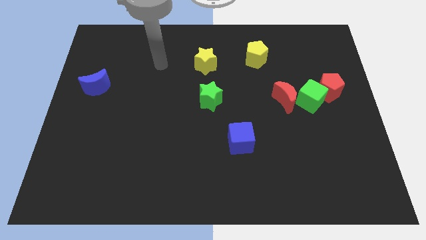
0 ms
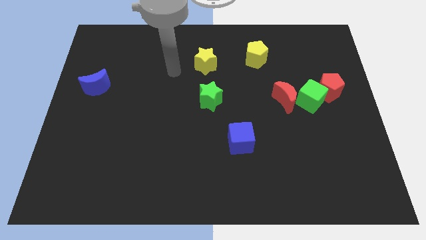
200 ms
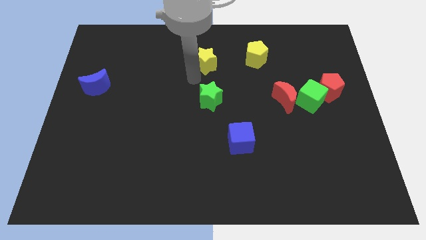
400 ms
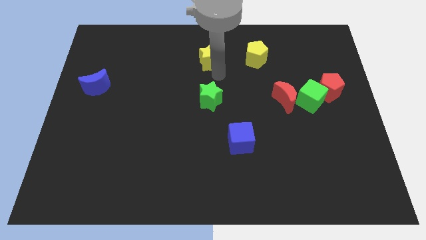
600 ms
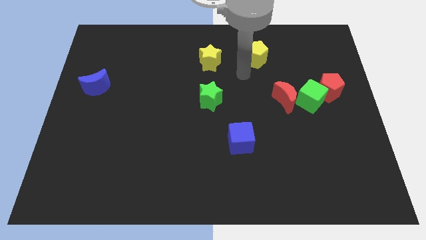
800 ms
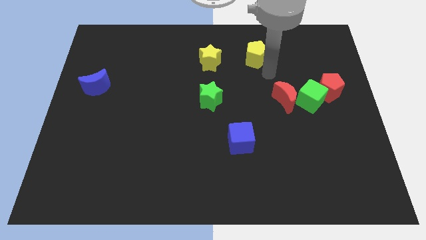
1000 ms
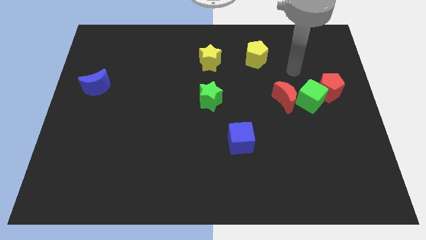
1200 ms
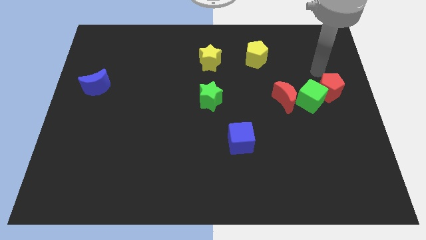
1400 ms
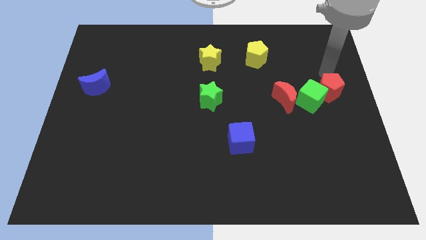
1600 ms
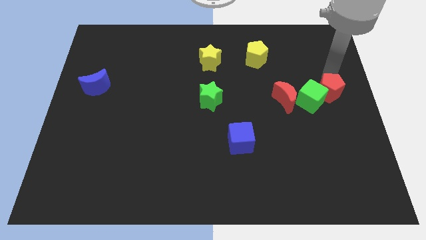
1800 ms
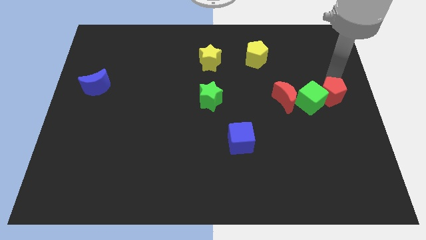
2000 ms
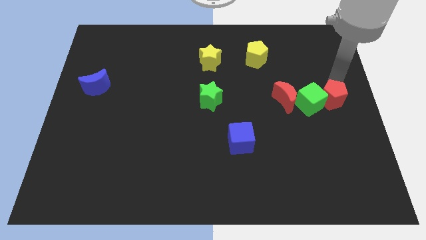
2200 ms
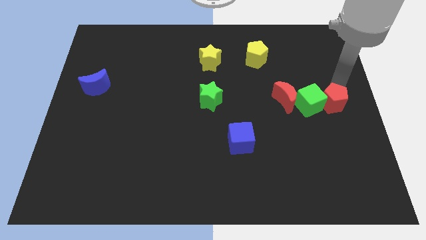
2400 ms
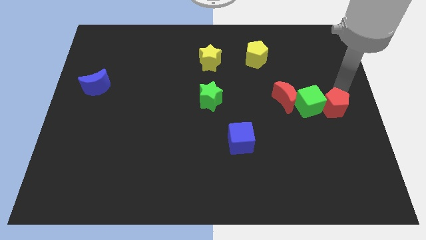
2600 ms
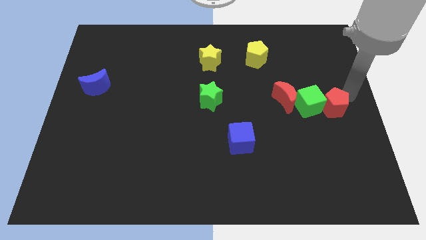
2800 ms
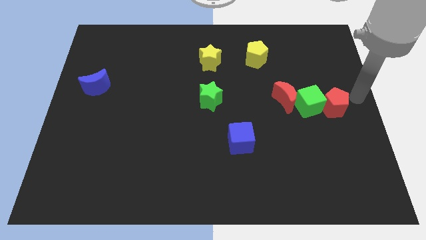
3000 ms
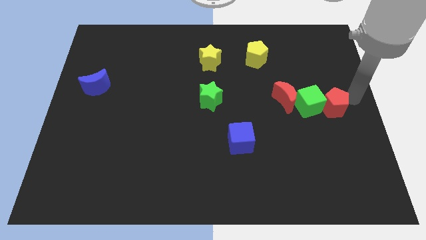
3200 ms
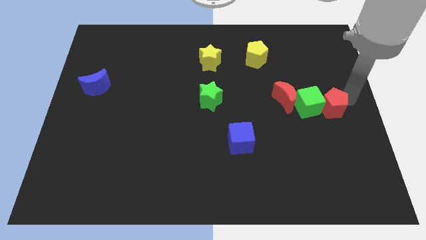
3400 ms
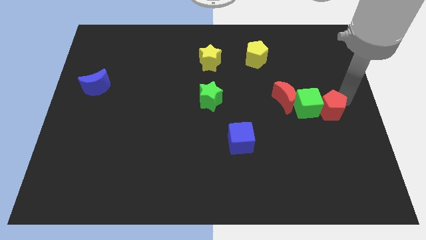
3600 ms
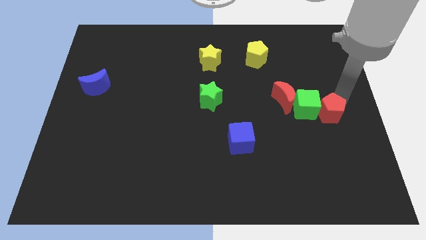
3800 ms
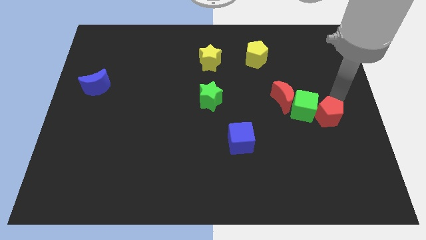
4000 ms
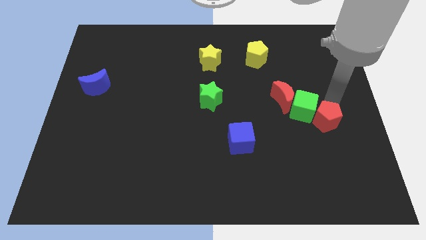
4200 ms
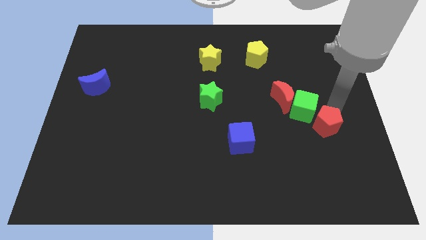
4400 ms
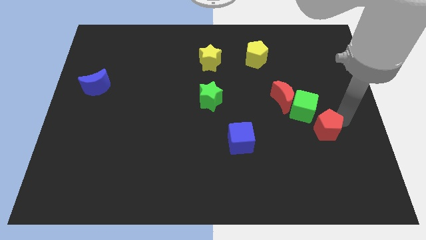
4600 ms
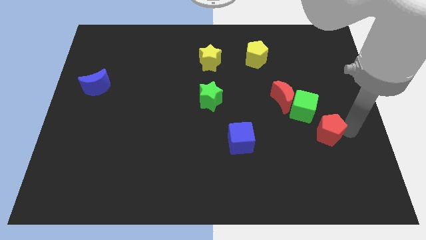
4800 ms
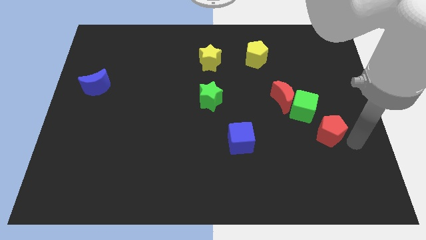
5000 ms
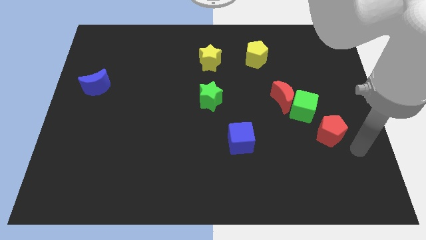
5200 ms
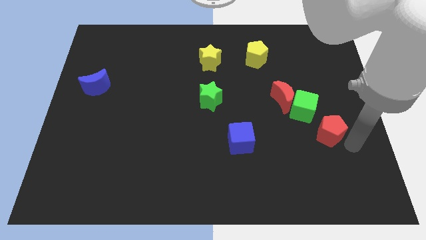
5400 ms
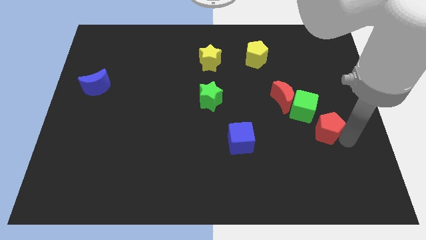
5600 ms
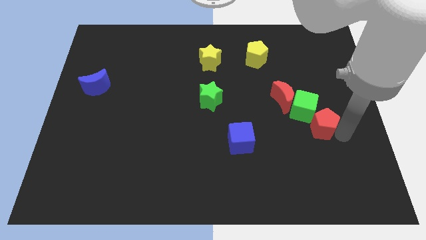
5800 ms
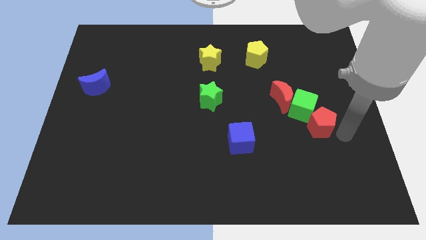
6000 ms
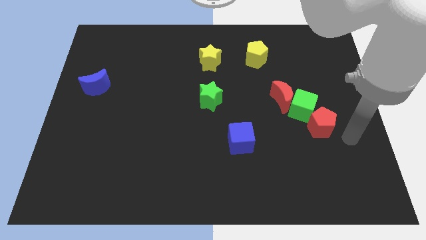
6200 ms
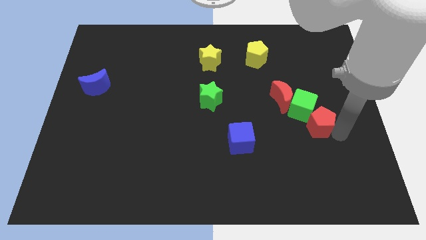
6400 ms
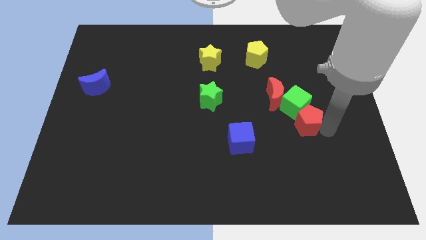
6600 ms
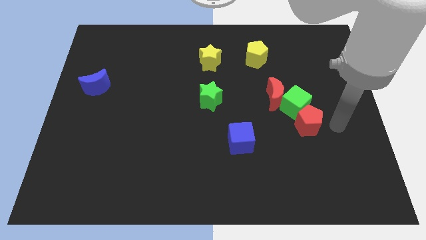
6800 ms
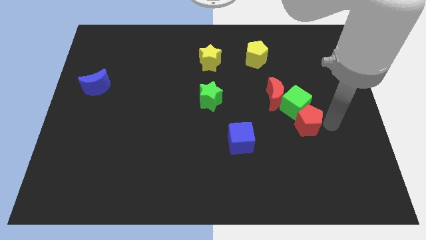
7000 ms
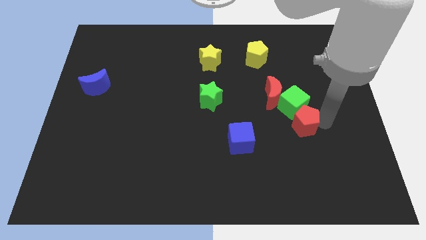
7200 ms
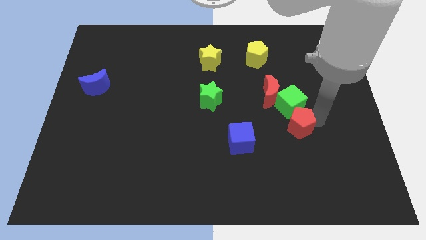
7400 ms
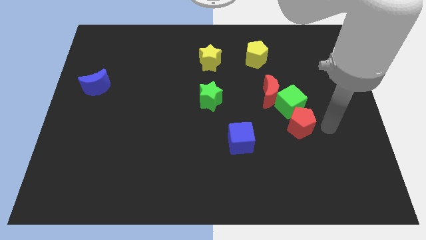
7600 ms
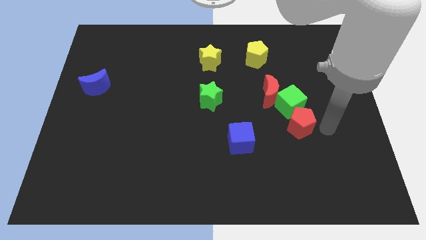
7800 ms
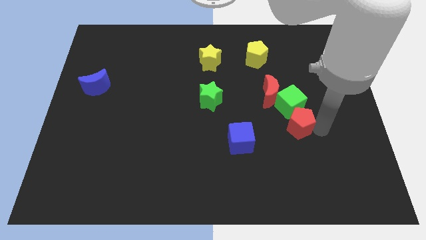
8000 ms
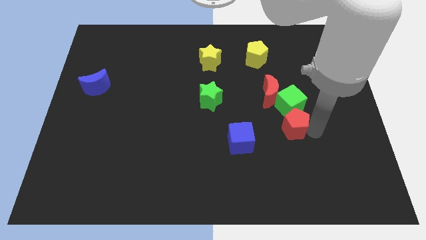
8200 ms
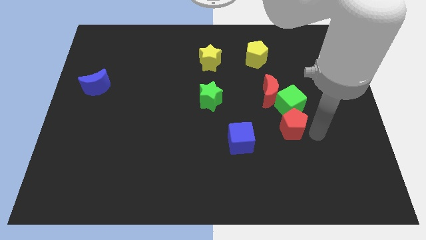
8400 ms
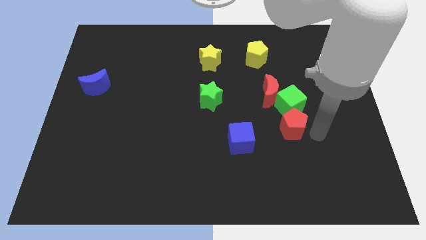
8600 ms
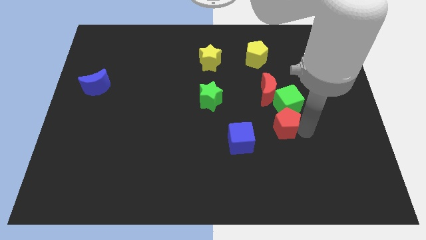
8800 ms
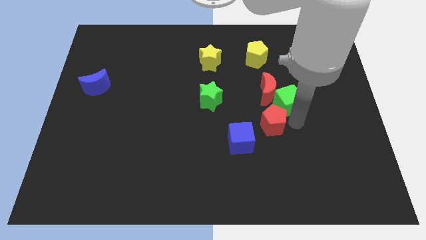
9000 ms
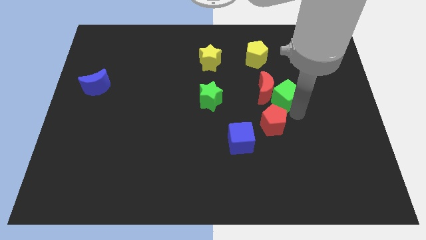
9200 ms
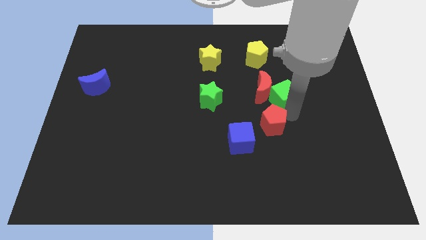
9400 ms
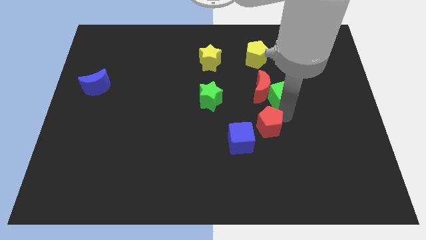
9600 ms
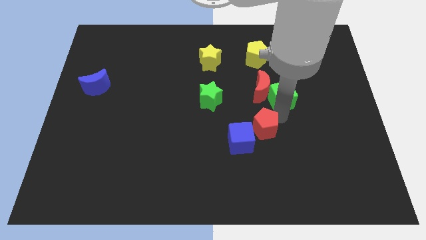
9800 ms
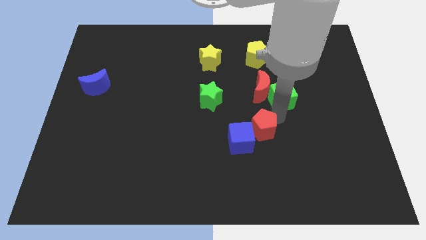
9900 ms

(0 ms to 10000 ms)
slide the red pentagon next to the blue cube

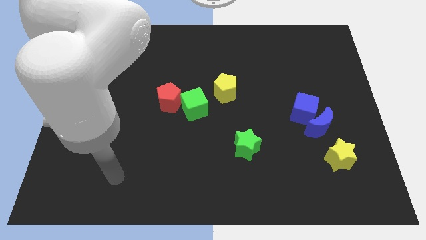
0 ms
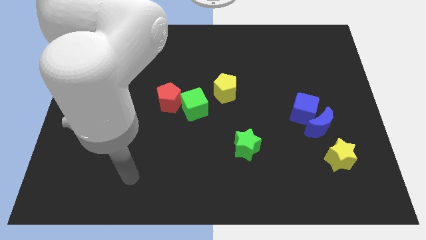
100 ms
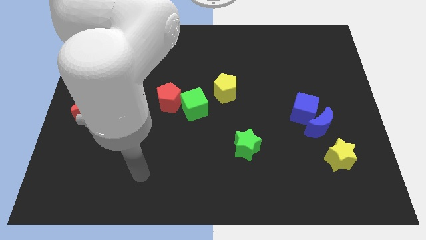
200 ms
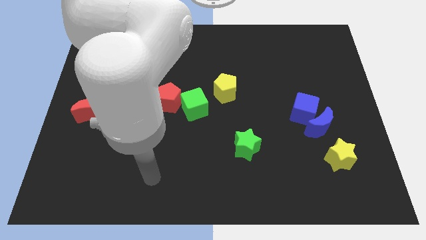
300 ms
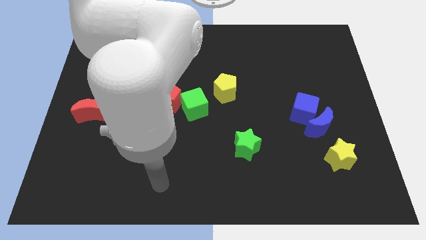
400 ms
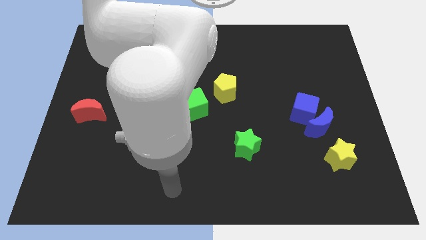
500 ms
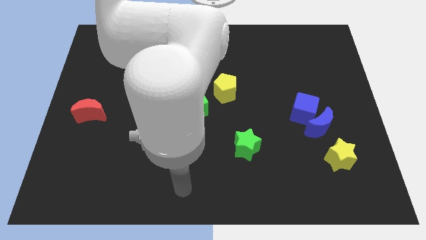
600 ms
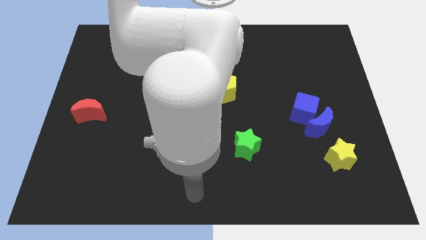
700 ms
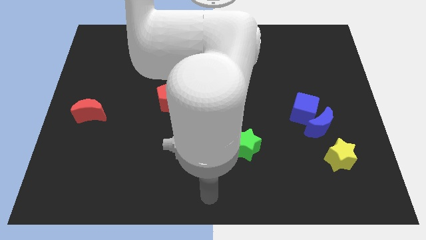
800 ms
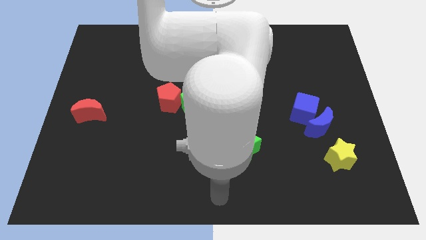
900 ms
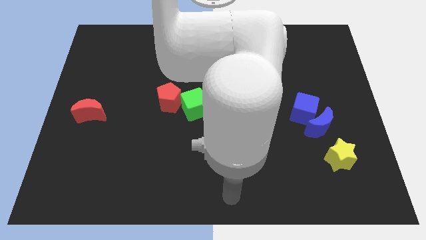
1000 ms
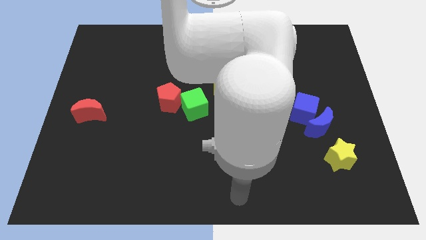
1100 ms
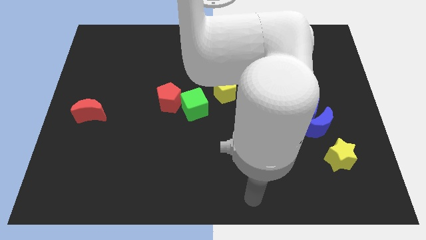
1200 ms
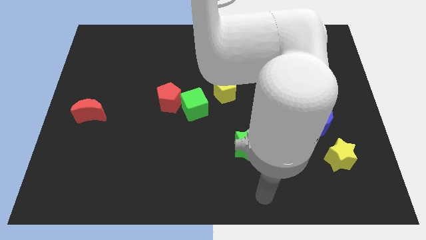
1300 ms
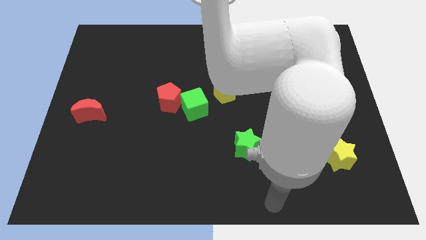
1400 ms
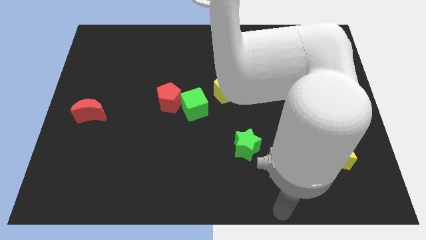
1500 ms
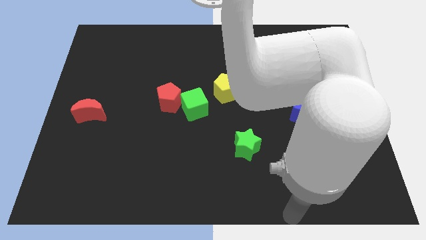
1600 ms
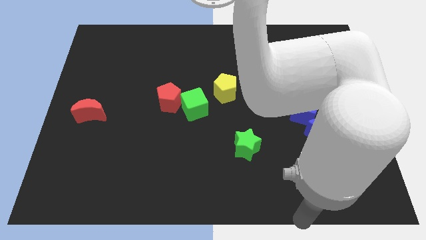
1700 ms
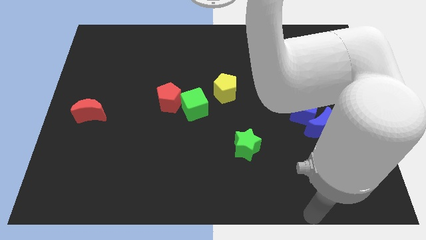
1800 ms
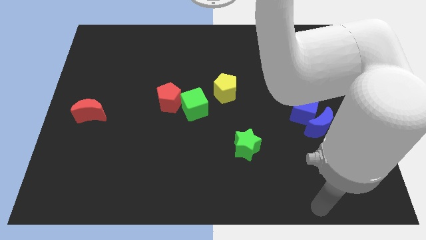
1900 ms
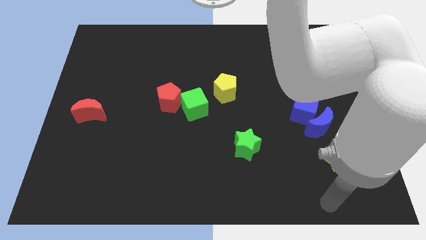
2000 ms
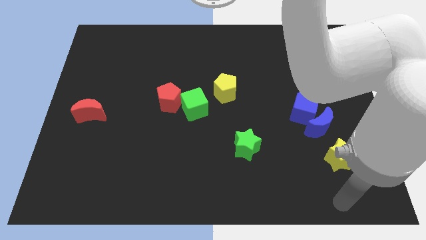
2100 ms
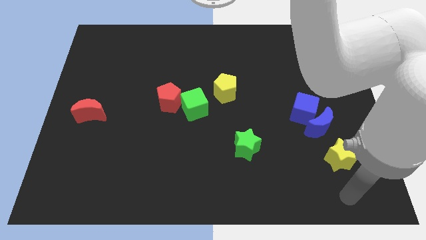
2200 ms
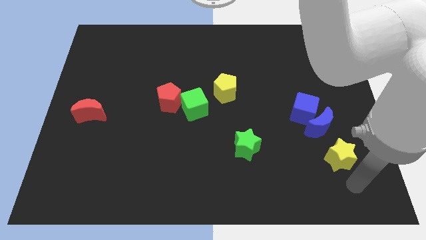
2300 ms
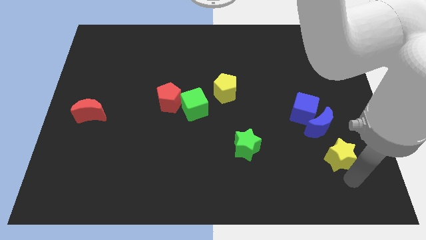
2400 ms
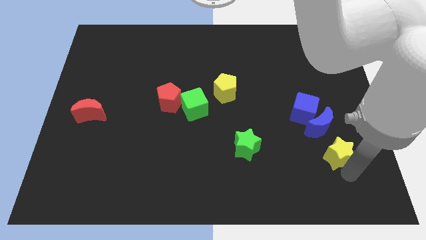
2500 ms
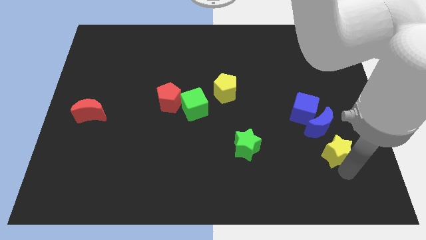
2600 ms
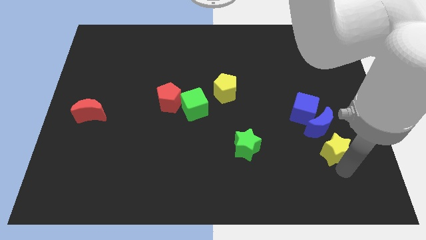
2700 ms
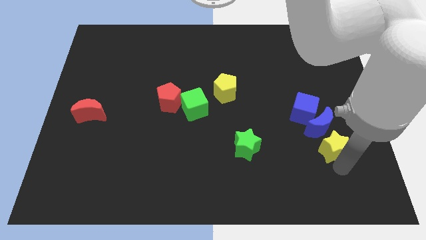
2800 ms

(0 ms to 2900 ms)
move the yellow star towards the blue moon
